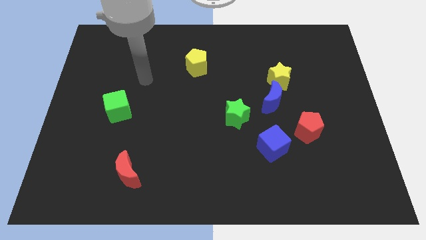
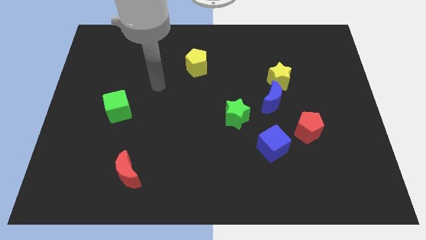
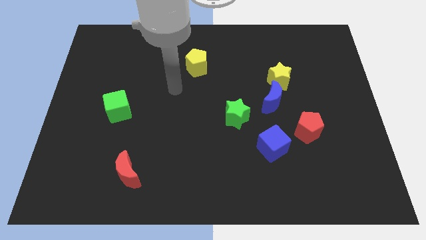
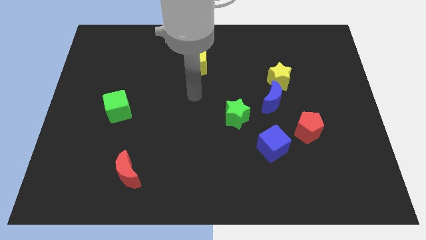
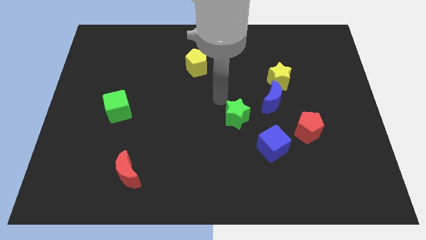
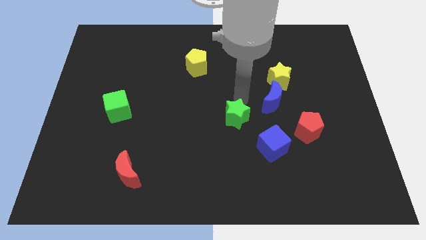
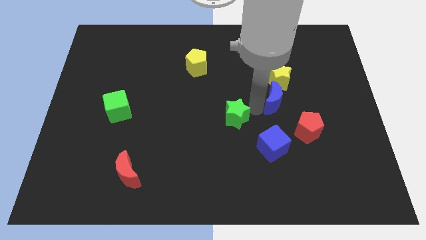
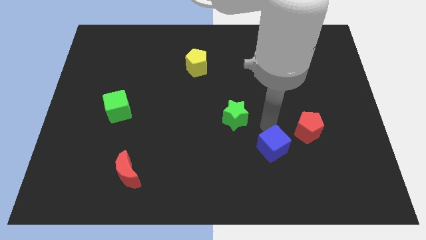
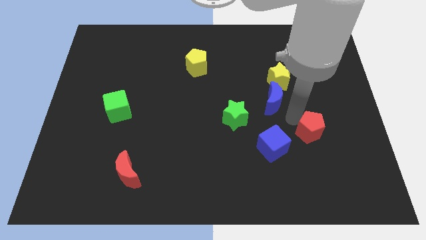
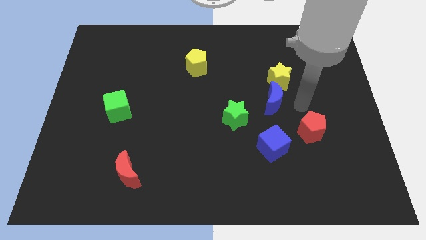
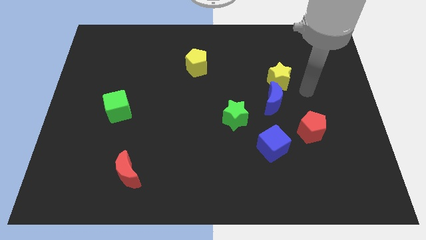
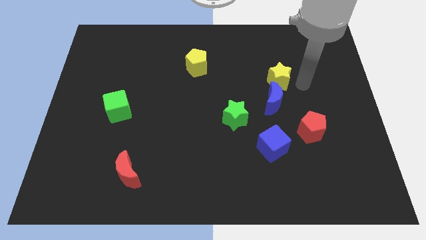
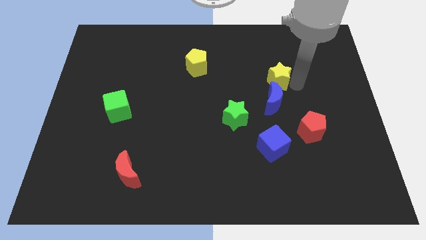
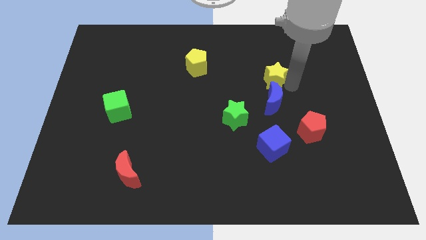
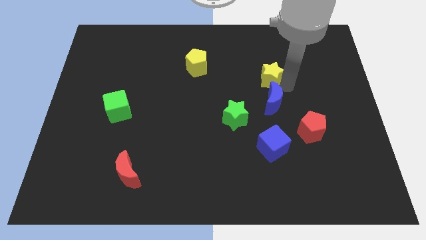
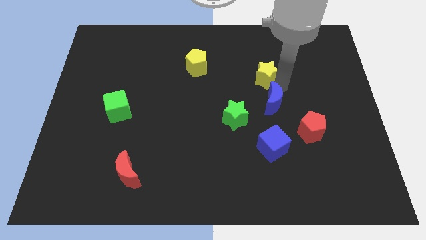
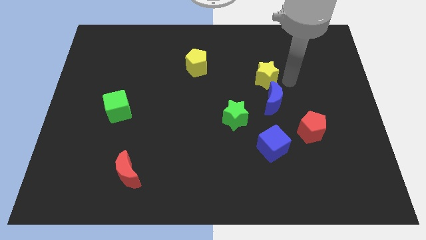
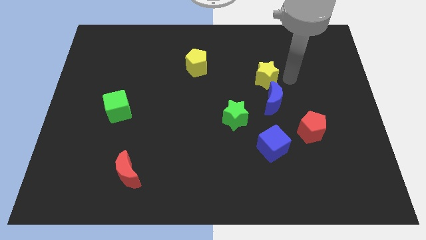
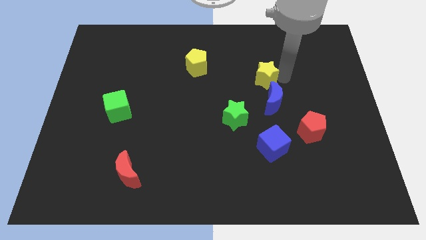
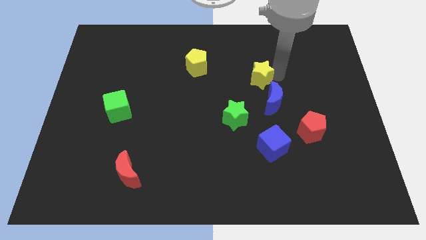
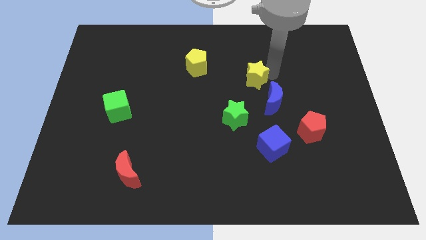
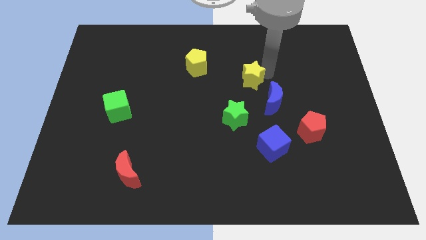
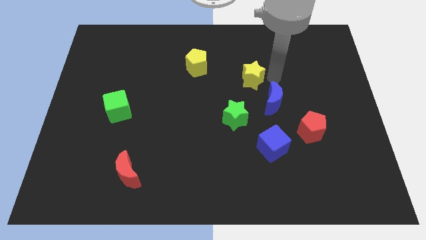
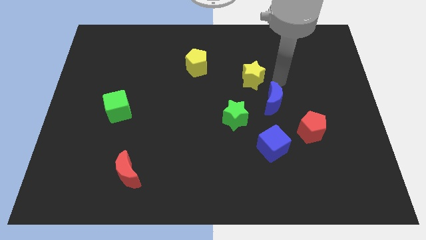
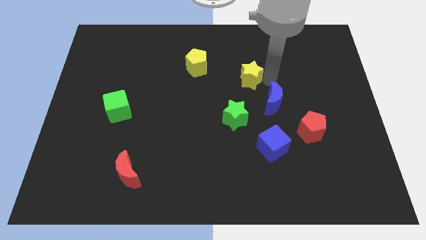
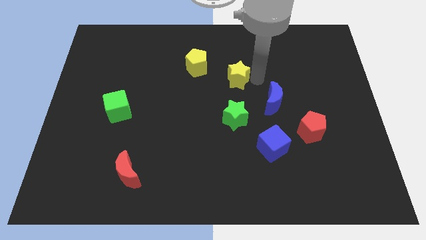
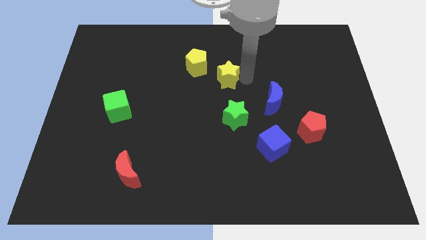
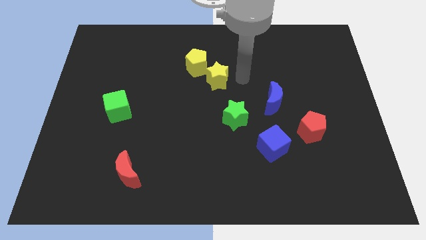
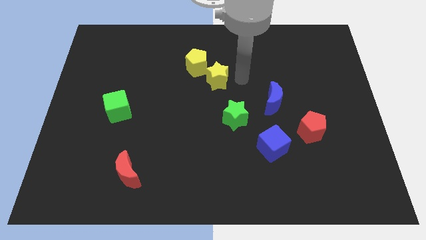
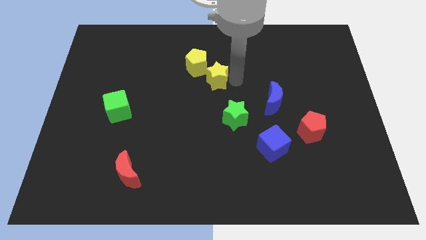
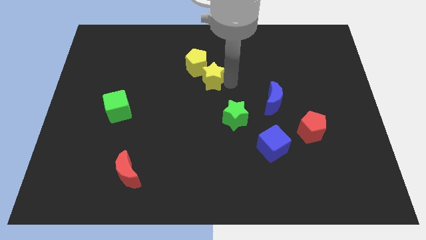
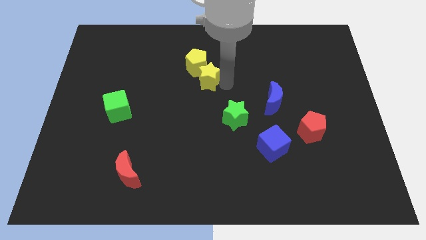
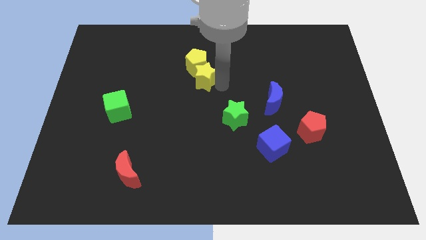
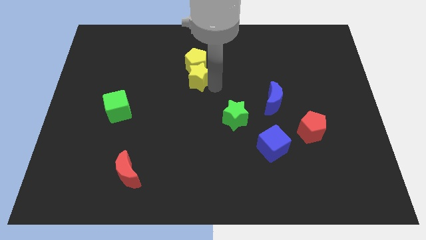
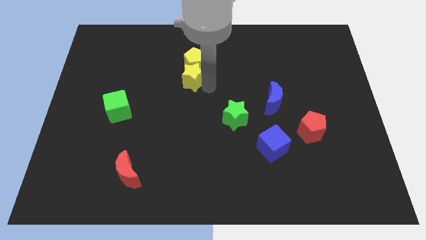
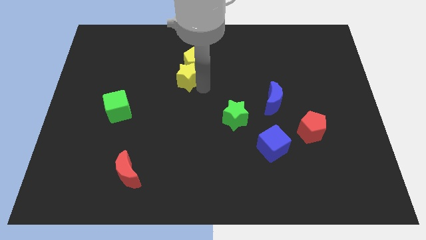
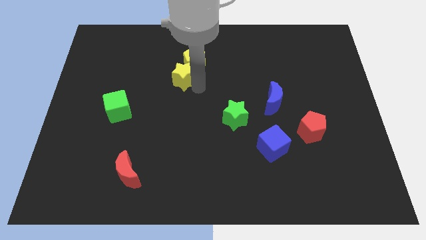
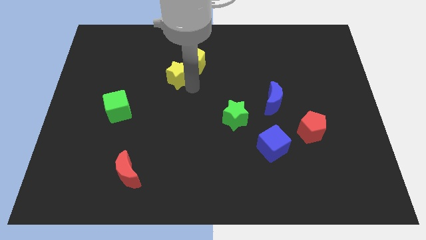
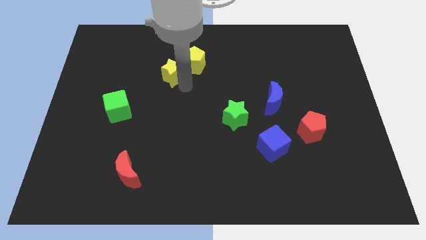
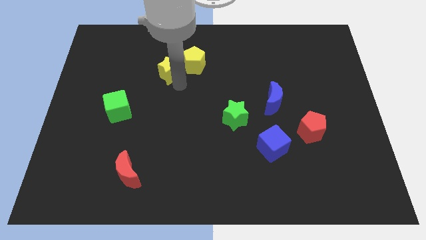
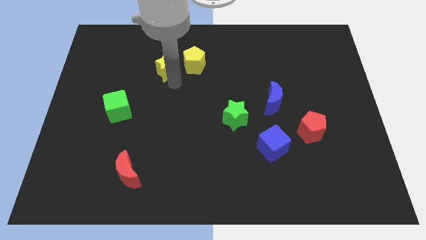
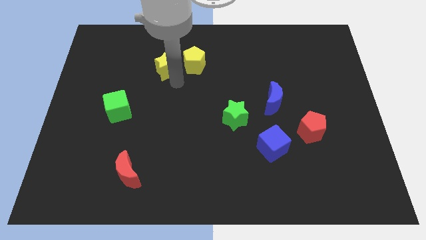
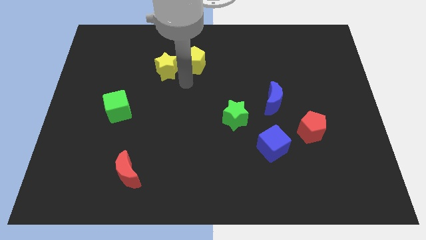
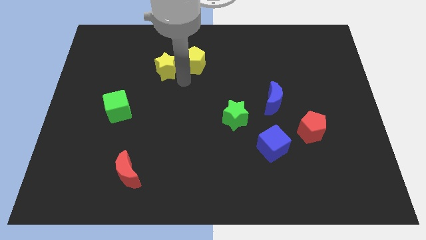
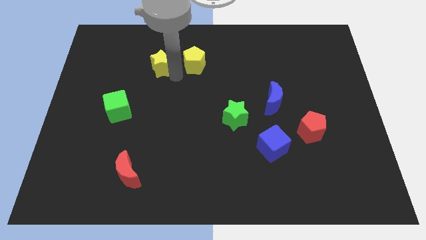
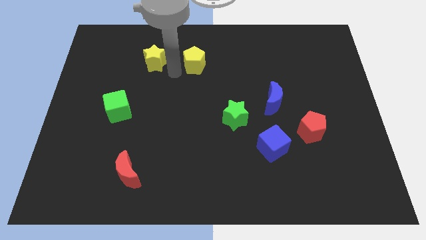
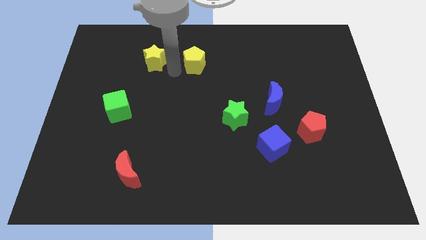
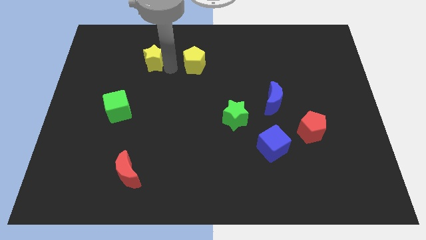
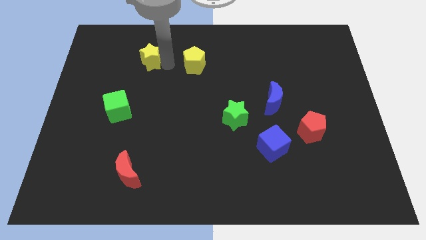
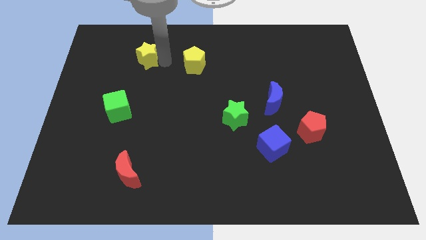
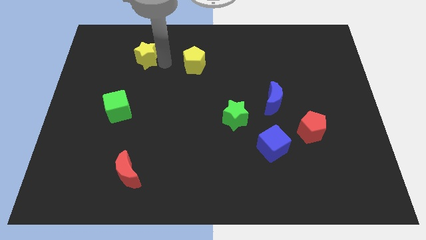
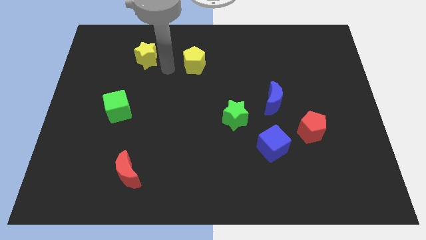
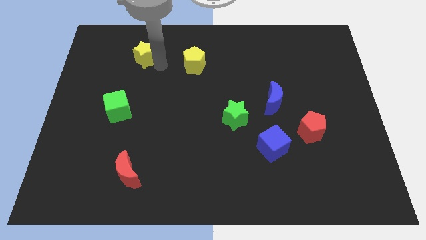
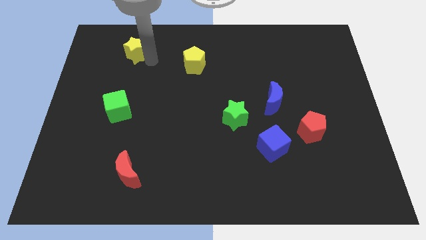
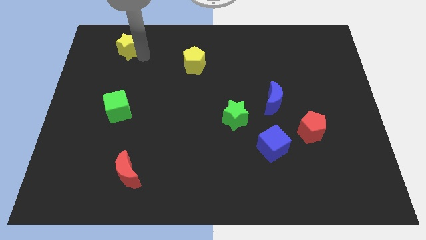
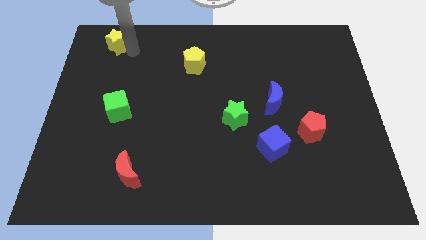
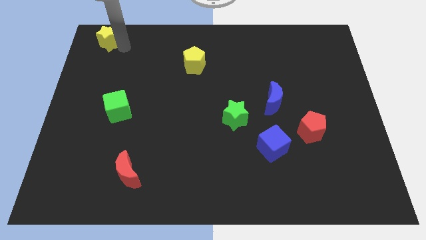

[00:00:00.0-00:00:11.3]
slide the yellow star to the top left of the board

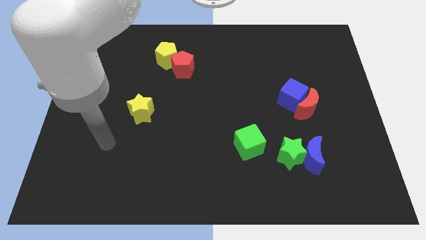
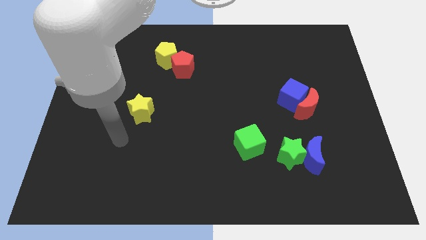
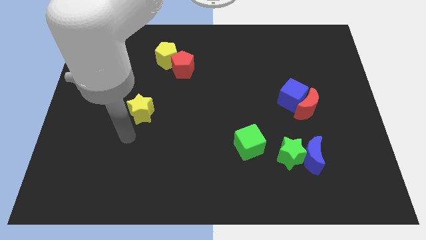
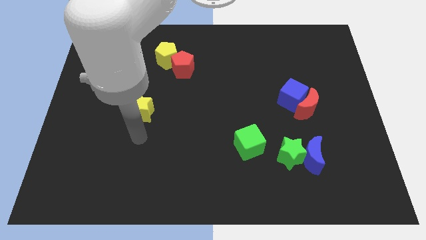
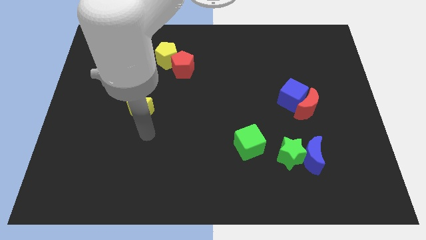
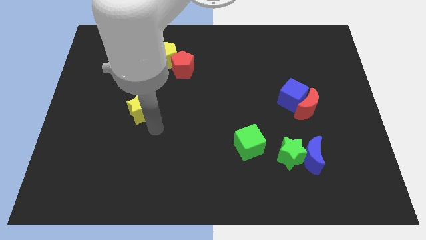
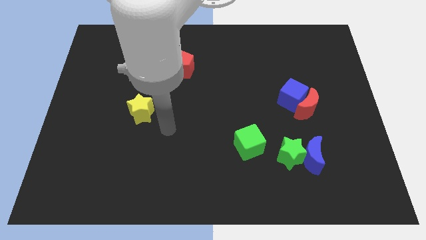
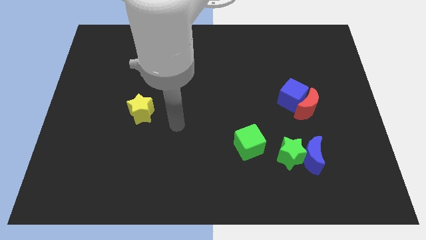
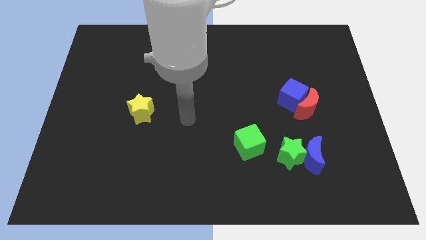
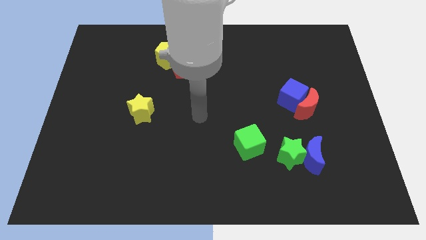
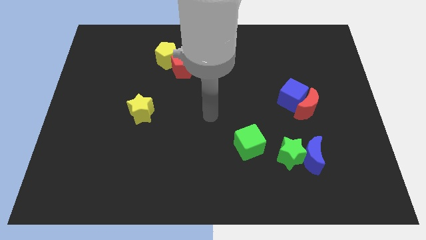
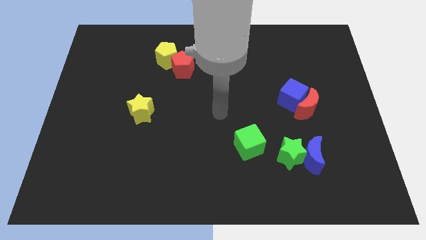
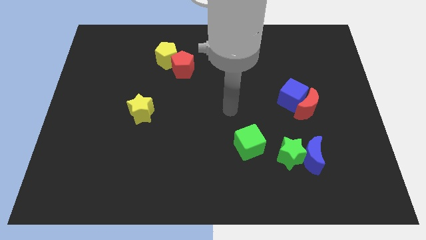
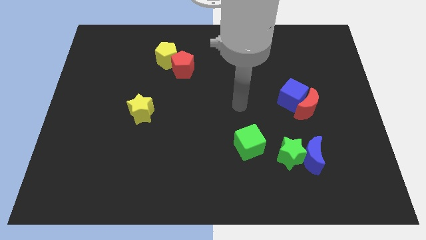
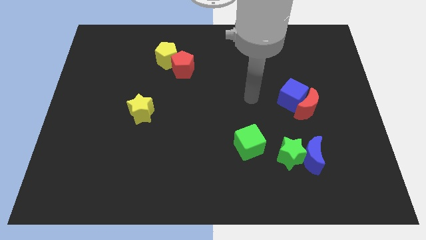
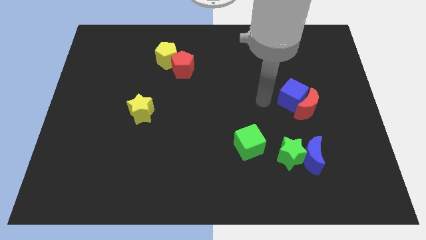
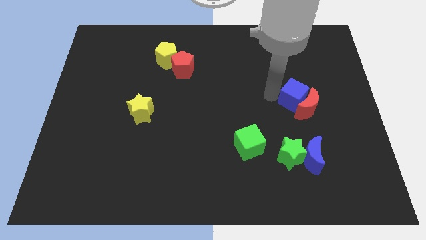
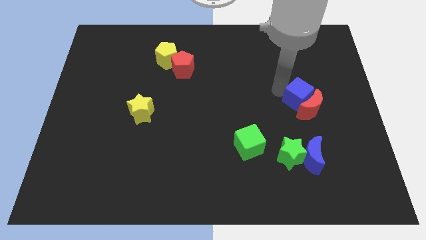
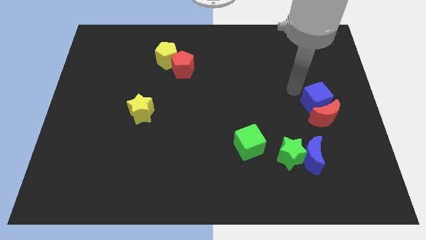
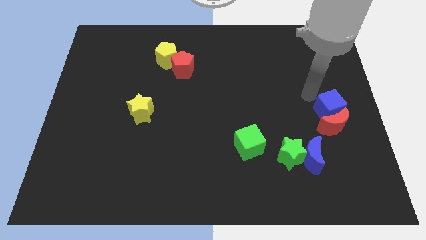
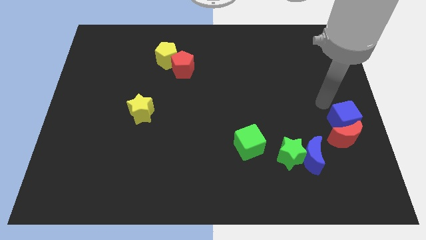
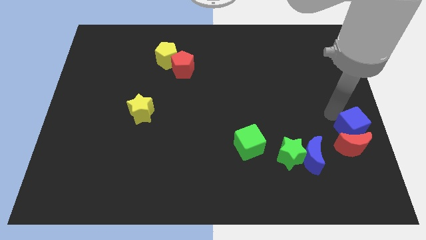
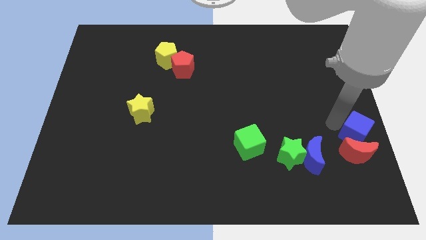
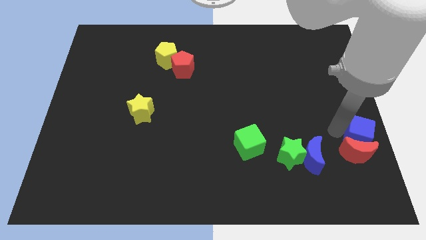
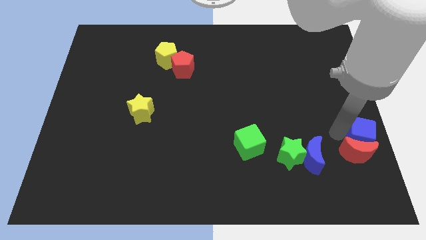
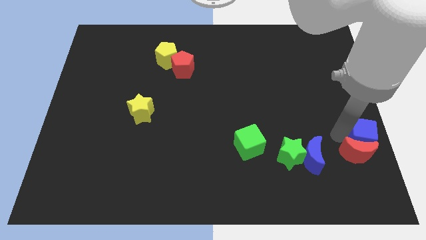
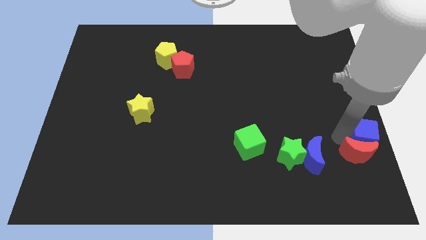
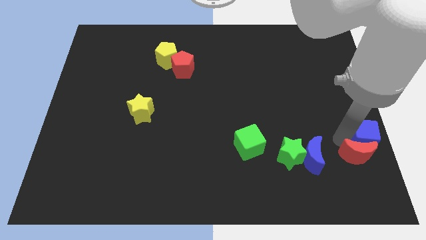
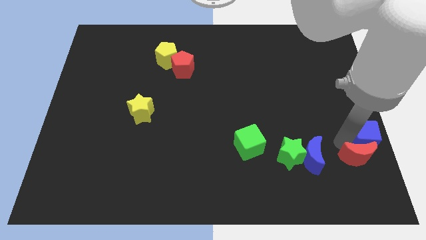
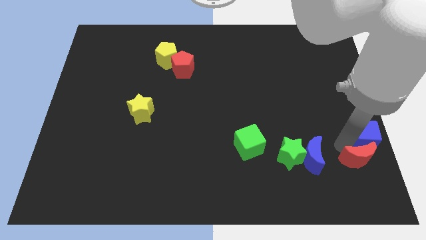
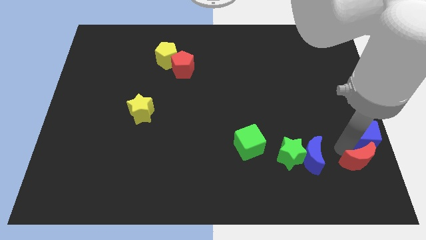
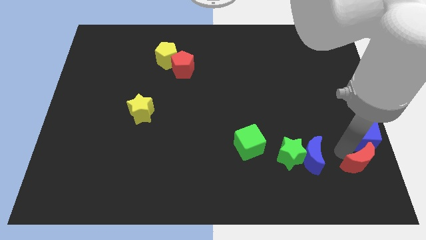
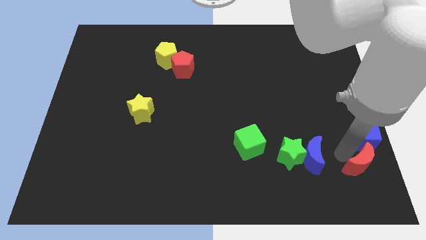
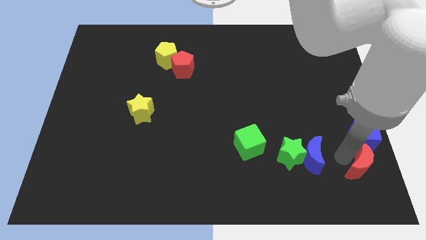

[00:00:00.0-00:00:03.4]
slide the red moon to the bottom right of the board
